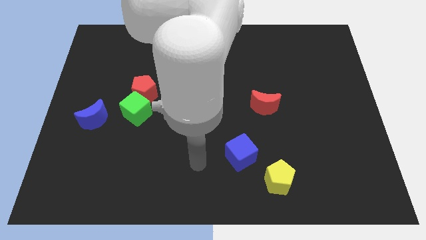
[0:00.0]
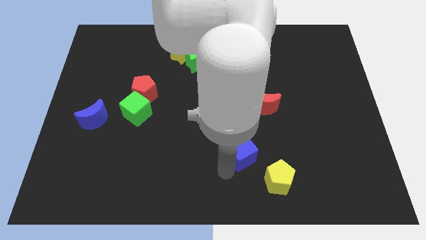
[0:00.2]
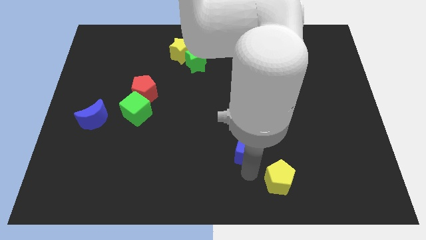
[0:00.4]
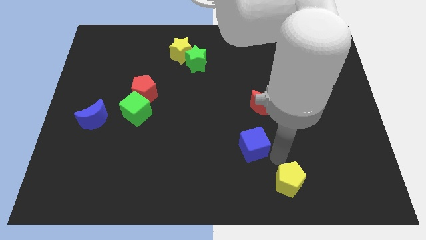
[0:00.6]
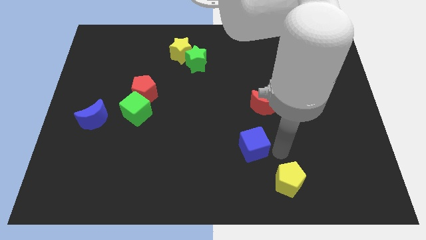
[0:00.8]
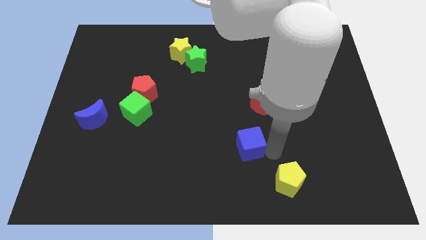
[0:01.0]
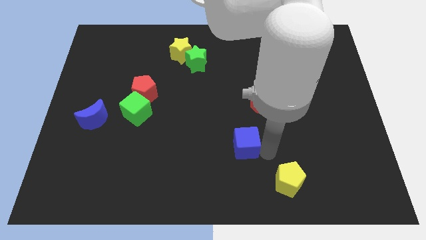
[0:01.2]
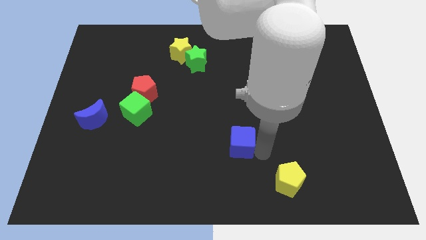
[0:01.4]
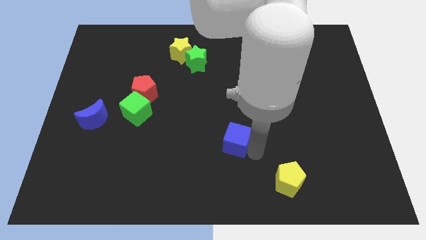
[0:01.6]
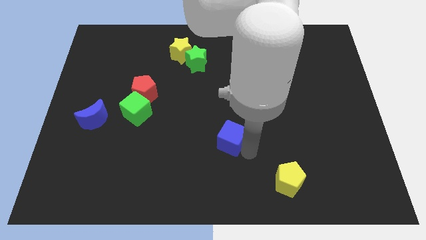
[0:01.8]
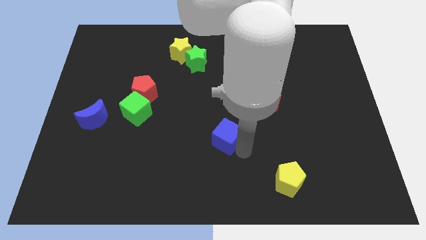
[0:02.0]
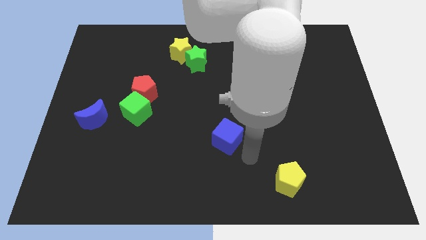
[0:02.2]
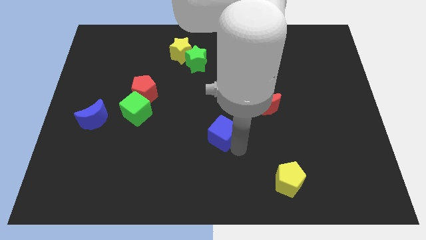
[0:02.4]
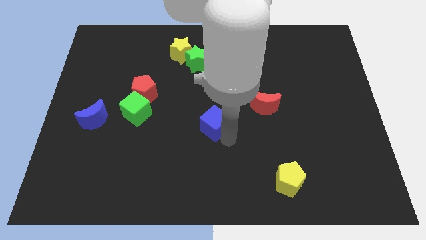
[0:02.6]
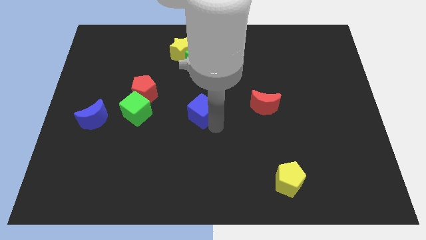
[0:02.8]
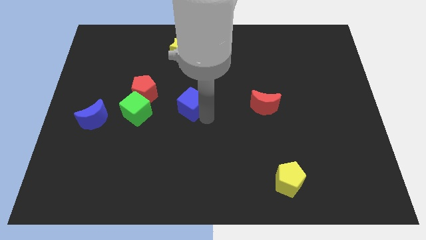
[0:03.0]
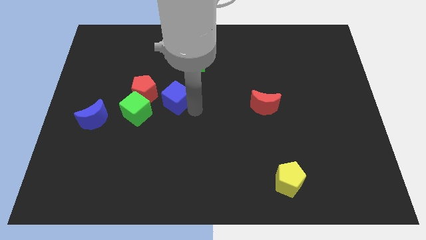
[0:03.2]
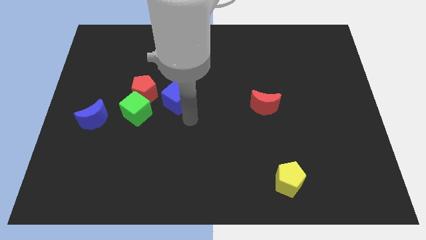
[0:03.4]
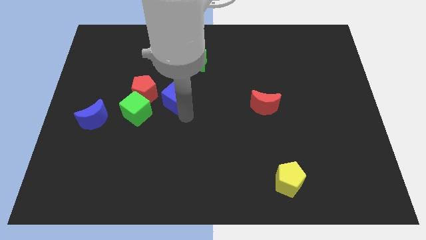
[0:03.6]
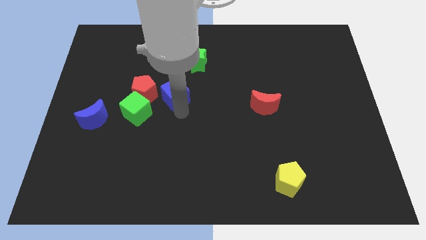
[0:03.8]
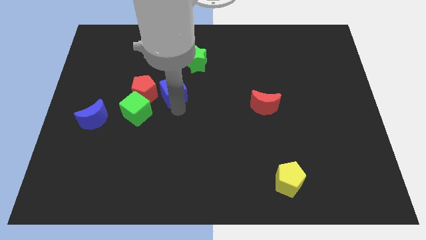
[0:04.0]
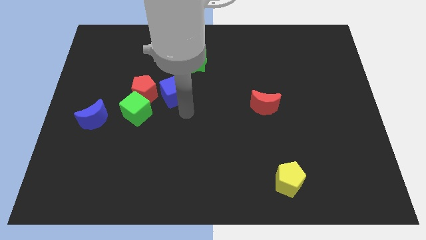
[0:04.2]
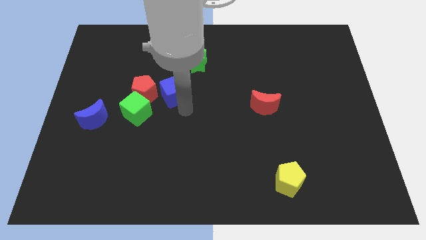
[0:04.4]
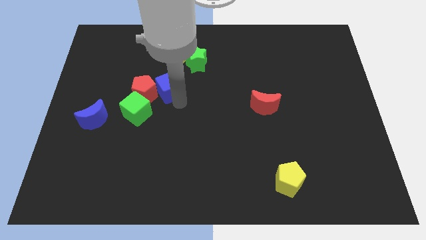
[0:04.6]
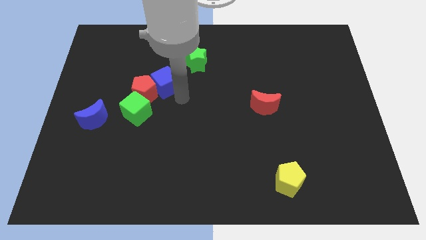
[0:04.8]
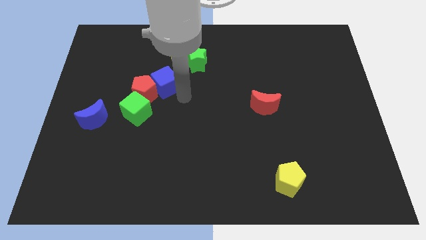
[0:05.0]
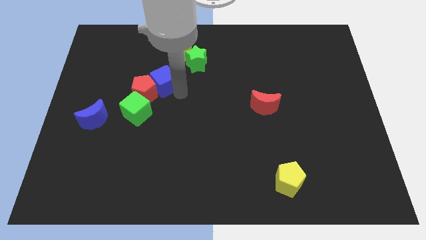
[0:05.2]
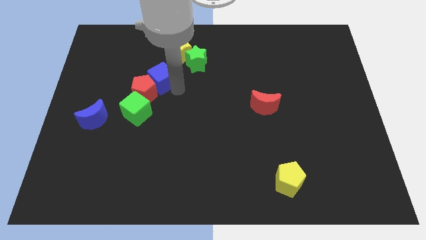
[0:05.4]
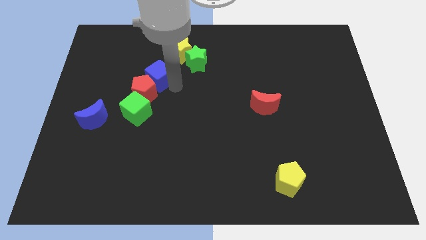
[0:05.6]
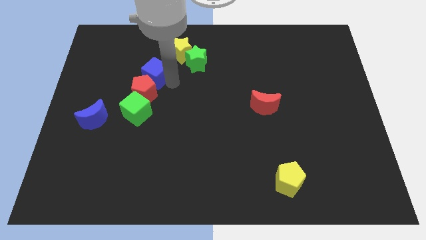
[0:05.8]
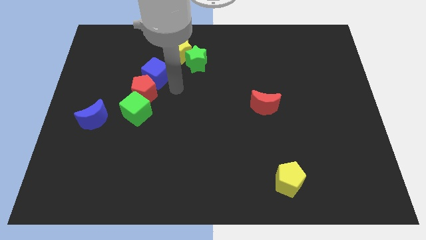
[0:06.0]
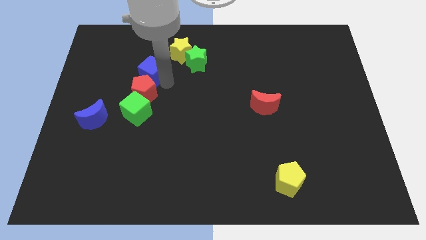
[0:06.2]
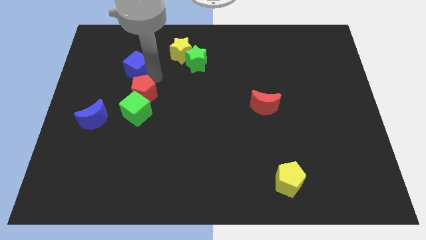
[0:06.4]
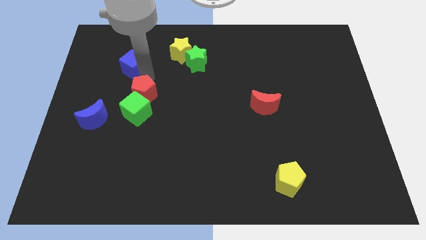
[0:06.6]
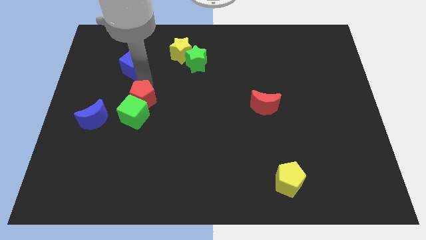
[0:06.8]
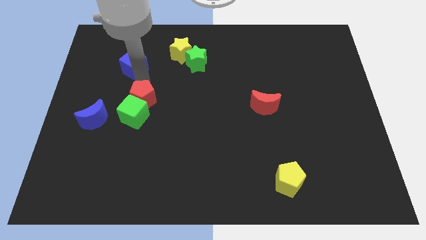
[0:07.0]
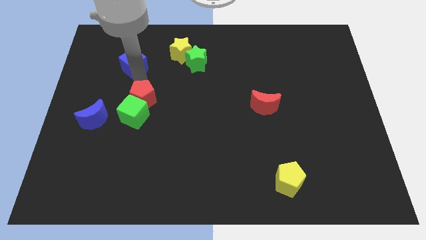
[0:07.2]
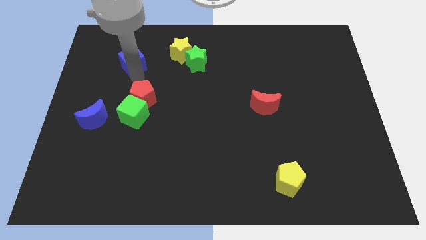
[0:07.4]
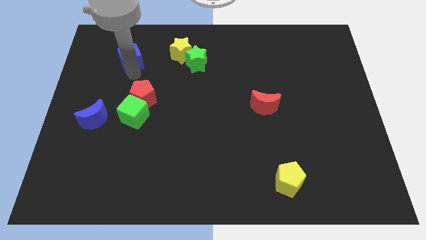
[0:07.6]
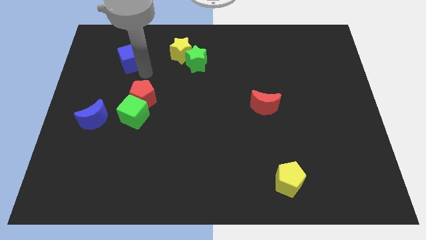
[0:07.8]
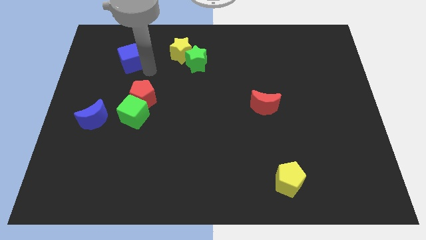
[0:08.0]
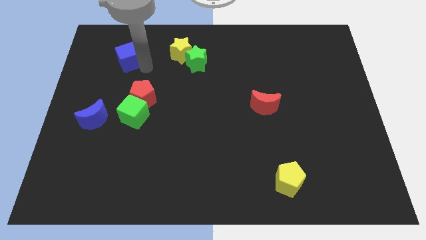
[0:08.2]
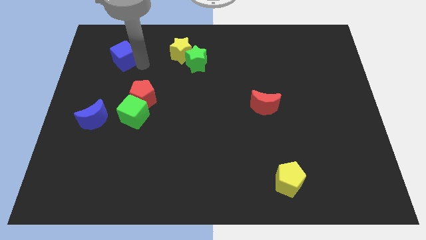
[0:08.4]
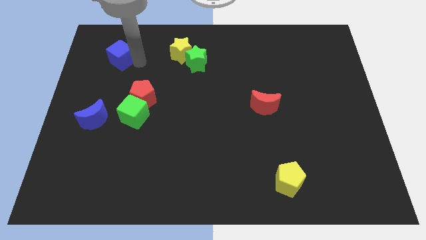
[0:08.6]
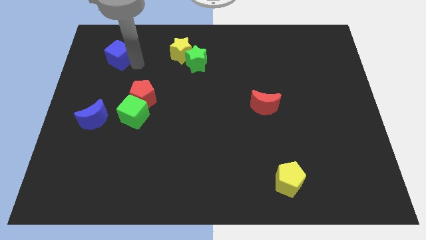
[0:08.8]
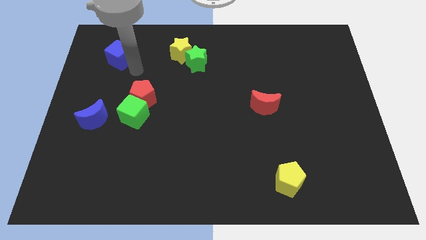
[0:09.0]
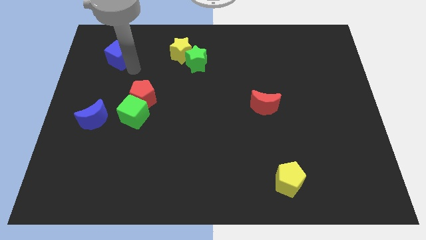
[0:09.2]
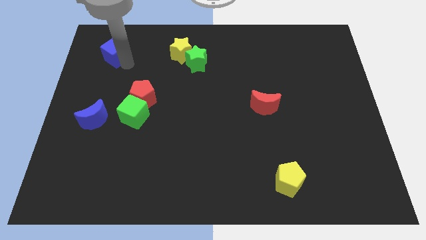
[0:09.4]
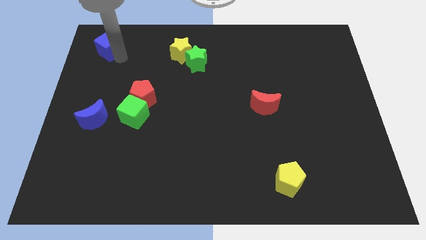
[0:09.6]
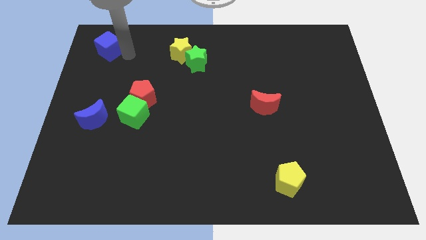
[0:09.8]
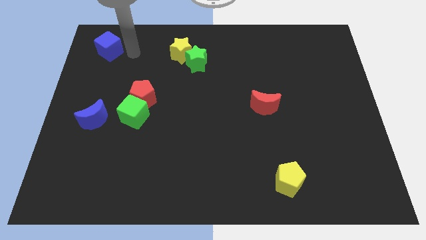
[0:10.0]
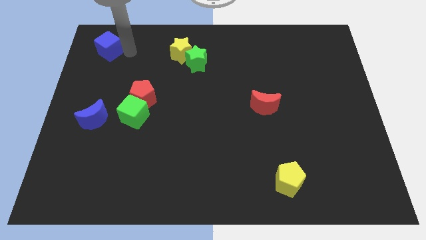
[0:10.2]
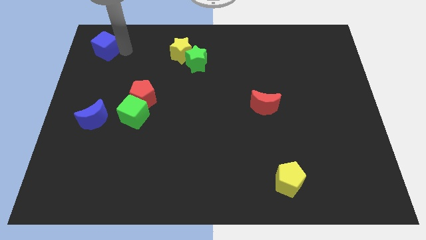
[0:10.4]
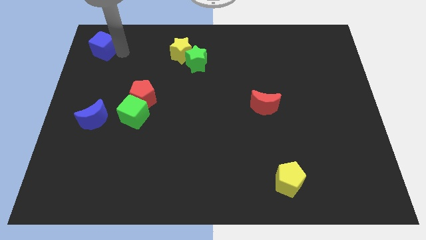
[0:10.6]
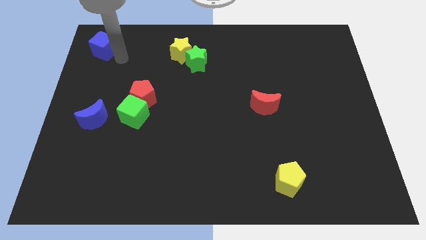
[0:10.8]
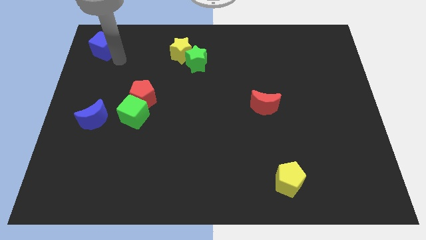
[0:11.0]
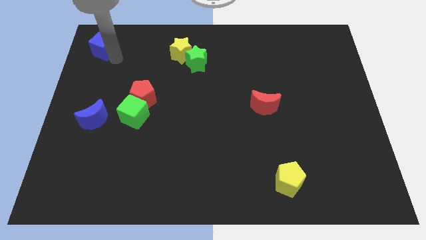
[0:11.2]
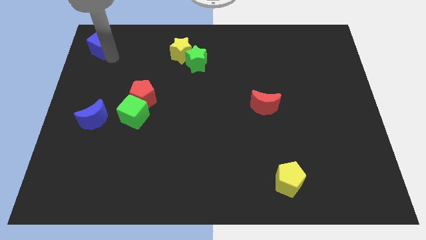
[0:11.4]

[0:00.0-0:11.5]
move the blue cube to the upper left corner
